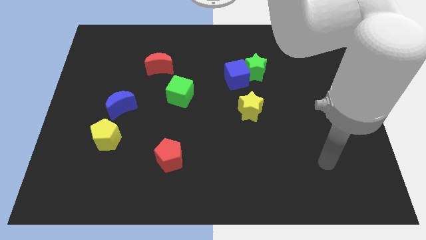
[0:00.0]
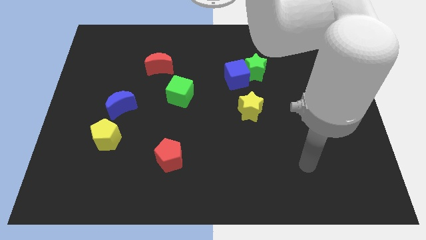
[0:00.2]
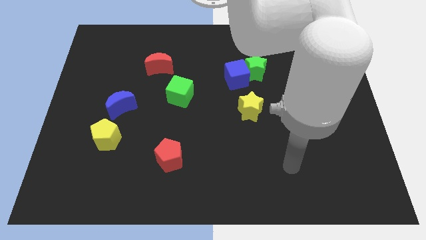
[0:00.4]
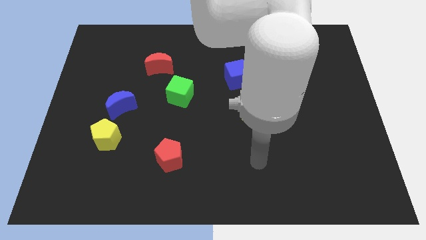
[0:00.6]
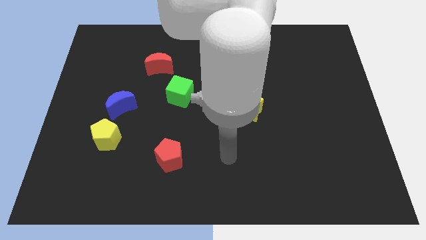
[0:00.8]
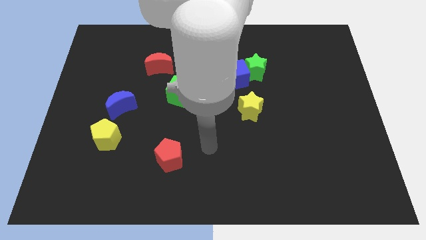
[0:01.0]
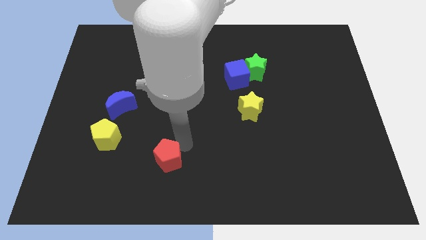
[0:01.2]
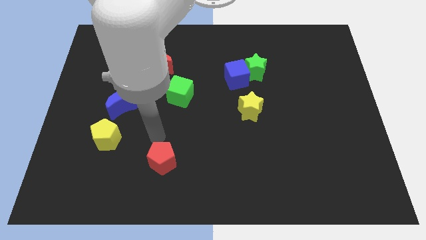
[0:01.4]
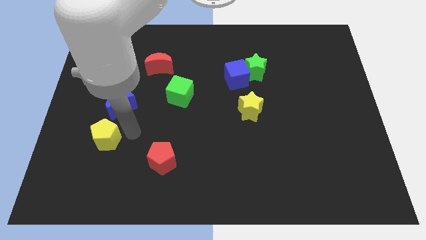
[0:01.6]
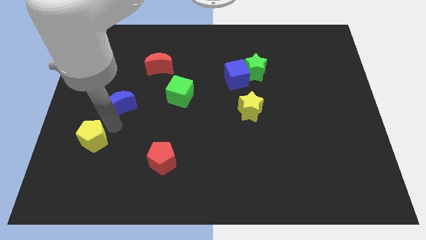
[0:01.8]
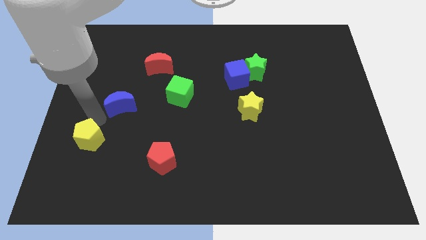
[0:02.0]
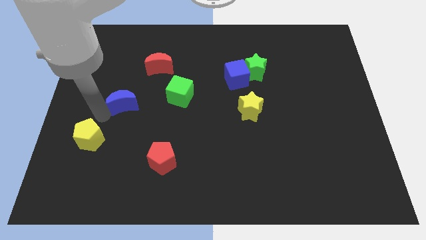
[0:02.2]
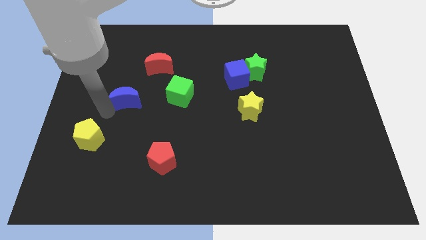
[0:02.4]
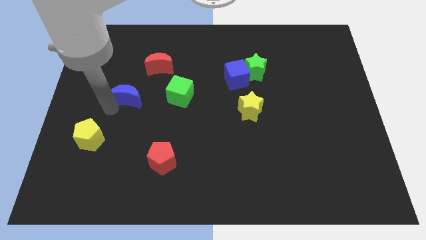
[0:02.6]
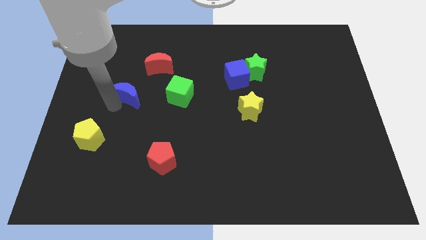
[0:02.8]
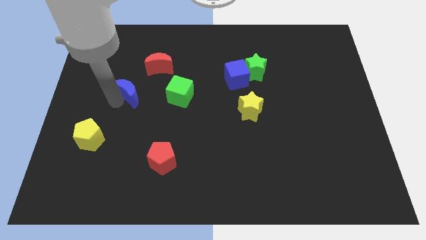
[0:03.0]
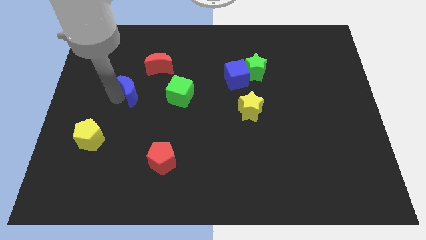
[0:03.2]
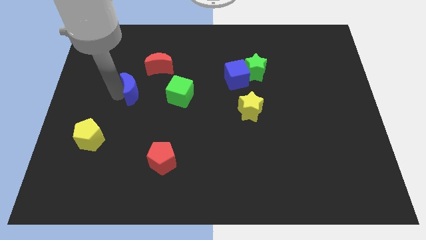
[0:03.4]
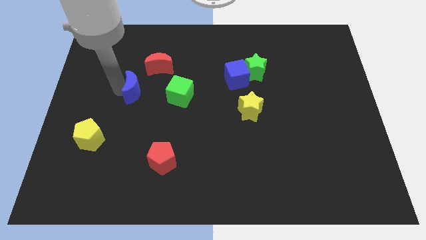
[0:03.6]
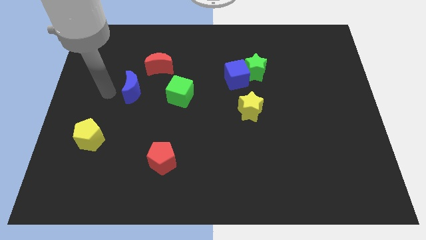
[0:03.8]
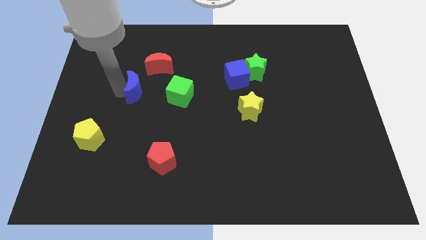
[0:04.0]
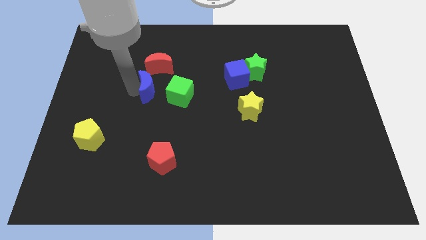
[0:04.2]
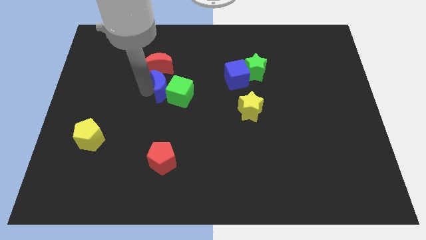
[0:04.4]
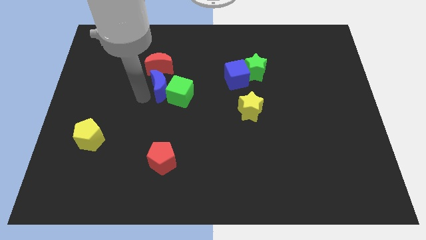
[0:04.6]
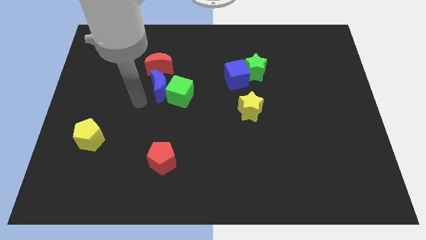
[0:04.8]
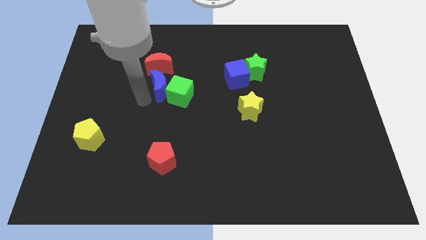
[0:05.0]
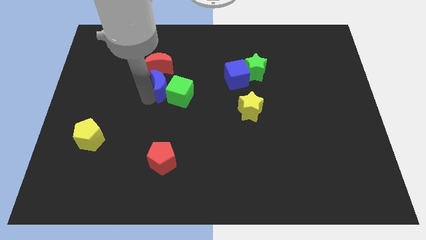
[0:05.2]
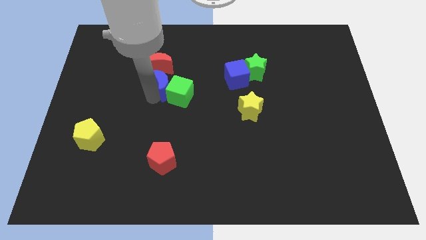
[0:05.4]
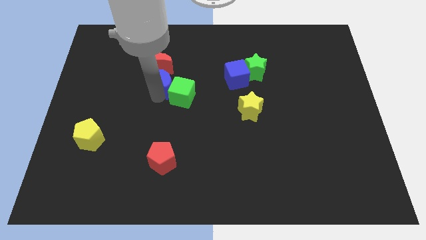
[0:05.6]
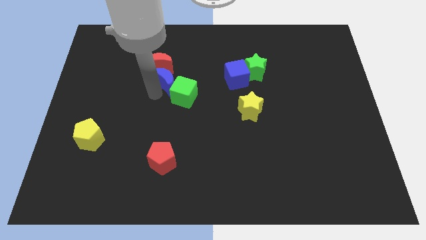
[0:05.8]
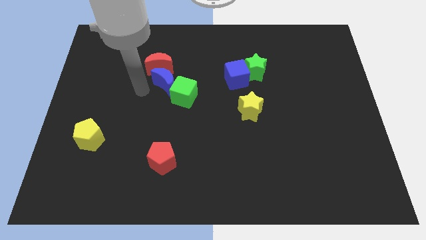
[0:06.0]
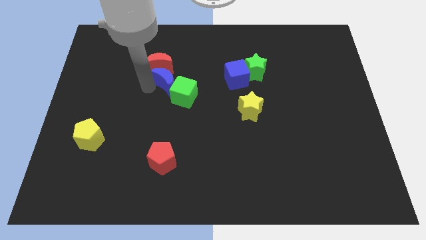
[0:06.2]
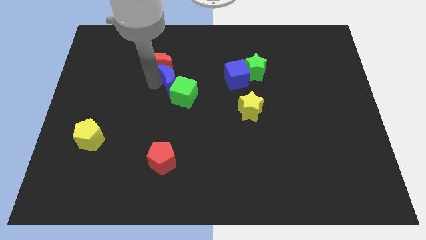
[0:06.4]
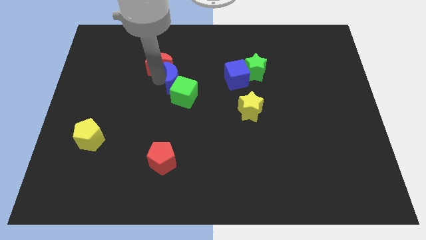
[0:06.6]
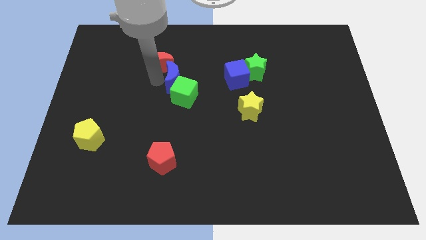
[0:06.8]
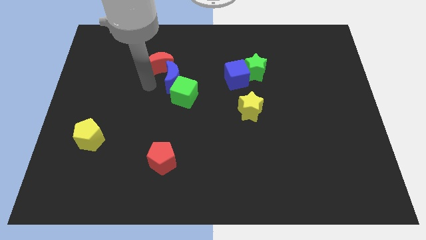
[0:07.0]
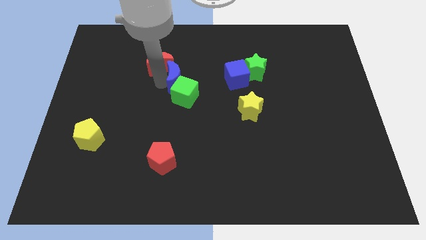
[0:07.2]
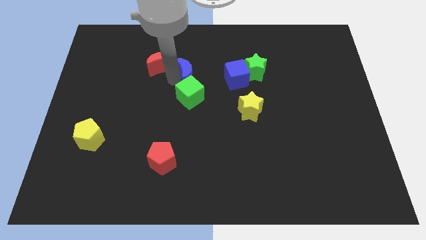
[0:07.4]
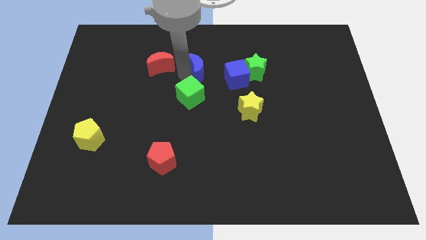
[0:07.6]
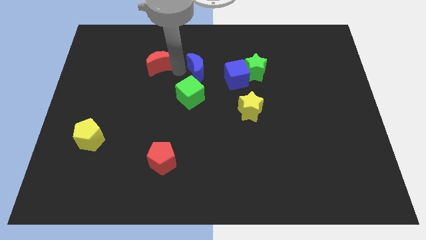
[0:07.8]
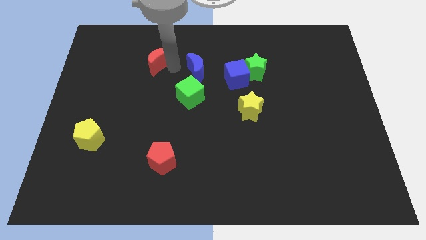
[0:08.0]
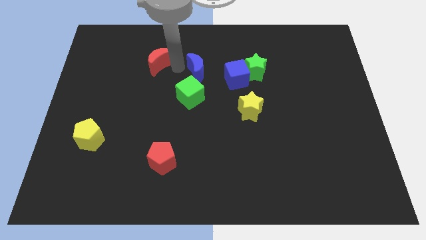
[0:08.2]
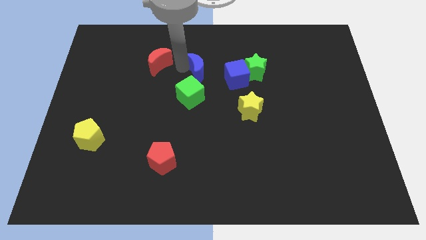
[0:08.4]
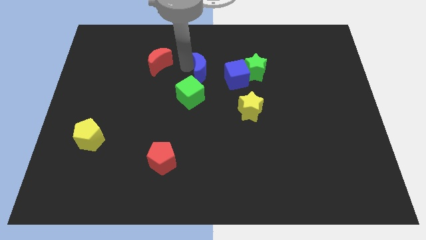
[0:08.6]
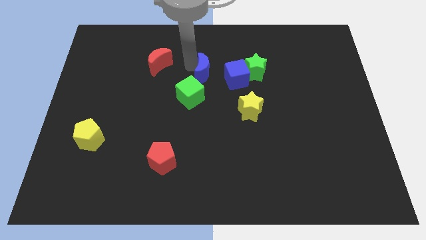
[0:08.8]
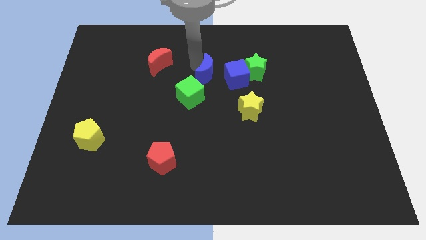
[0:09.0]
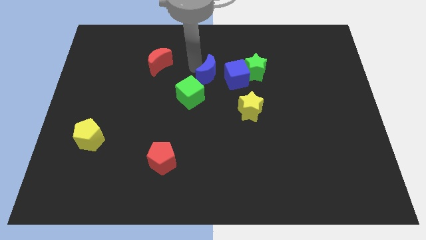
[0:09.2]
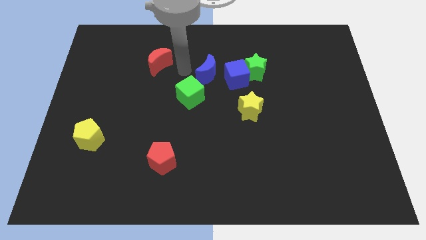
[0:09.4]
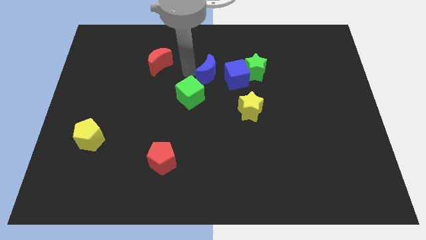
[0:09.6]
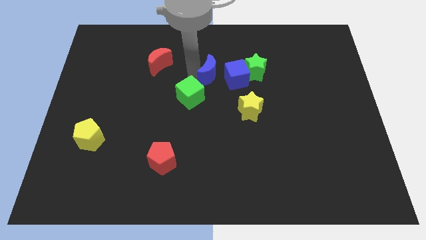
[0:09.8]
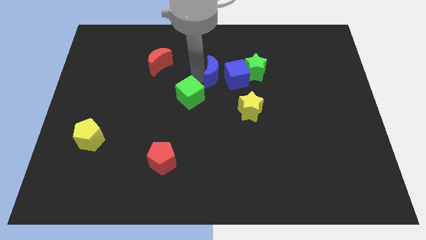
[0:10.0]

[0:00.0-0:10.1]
push the blue moon next to the blue cube

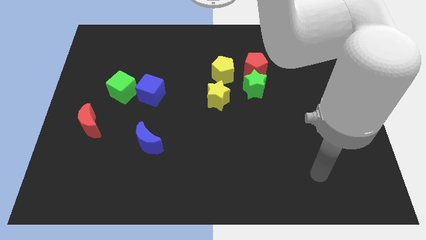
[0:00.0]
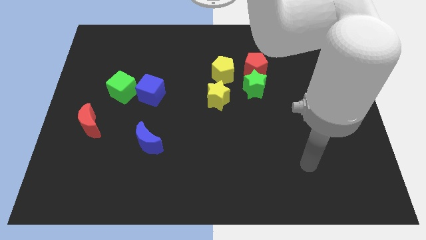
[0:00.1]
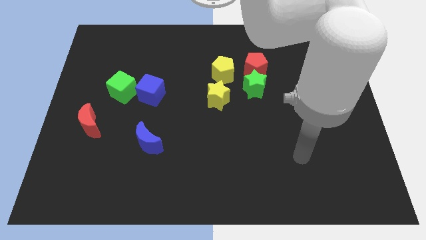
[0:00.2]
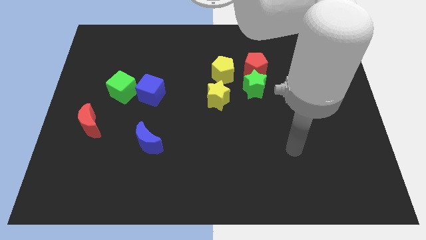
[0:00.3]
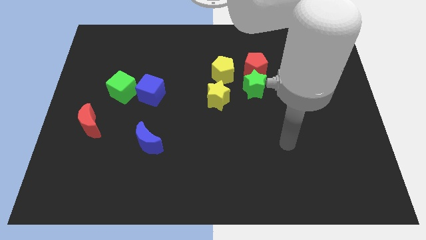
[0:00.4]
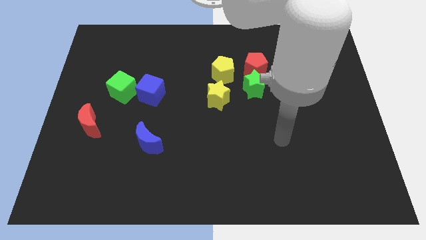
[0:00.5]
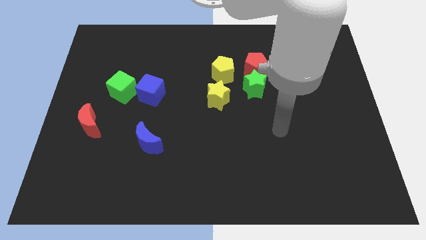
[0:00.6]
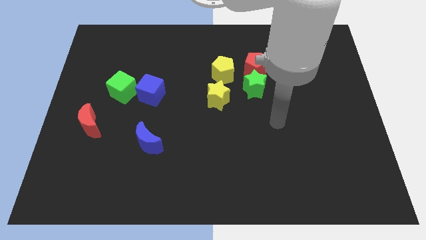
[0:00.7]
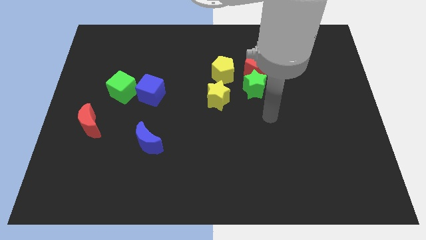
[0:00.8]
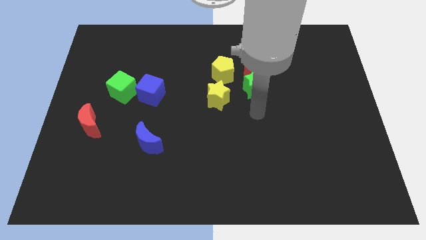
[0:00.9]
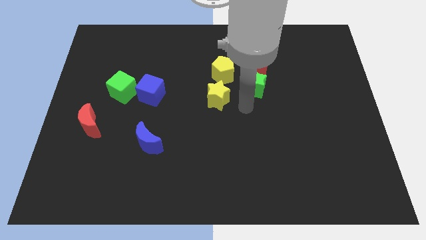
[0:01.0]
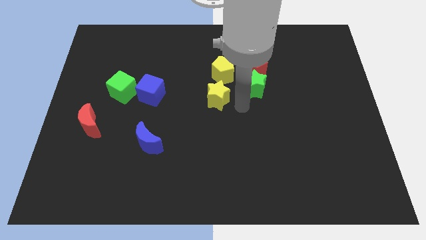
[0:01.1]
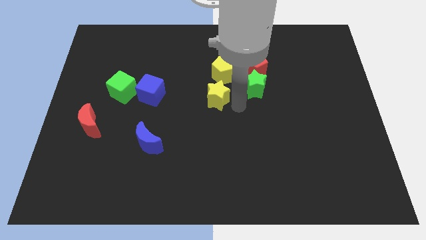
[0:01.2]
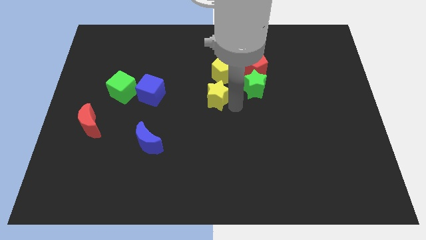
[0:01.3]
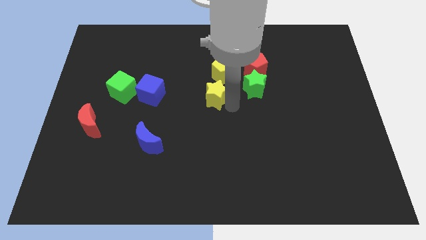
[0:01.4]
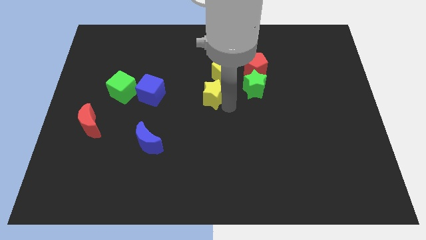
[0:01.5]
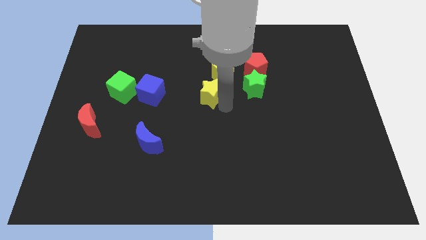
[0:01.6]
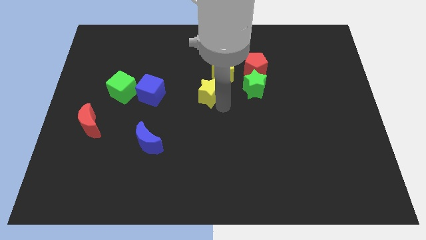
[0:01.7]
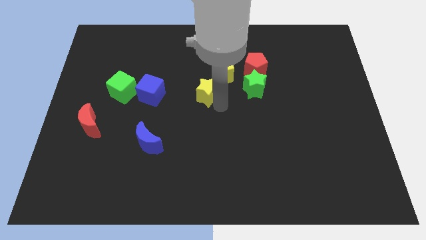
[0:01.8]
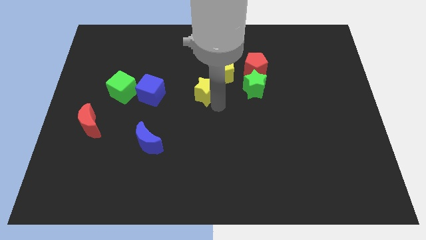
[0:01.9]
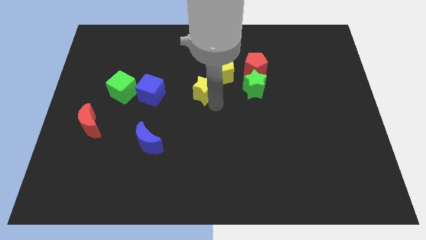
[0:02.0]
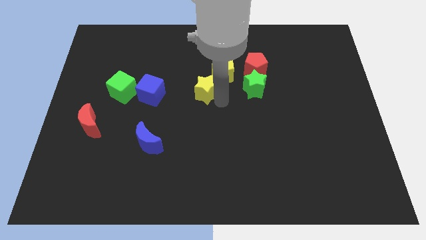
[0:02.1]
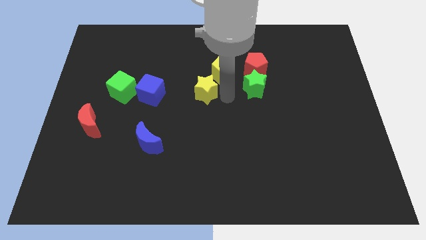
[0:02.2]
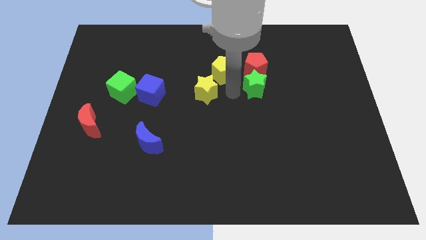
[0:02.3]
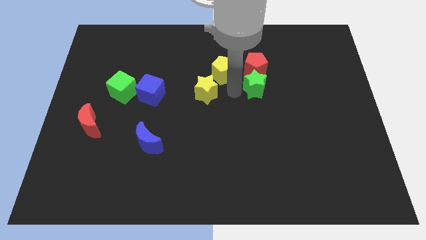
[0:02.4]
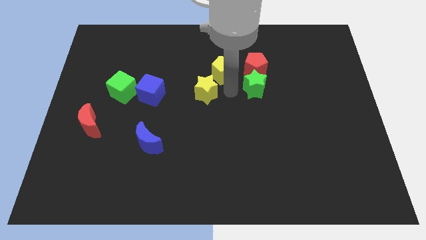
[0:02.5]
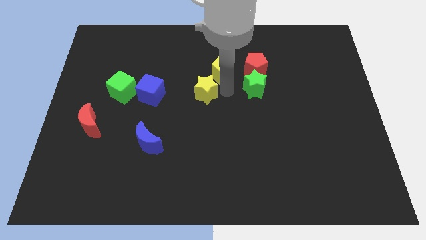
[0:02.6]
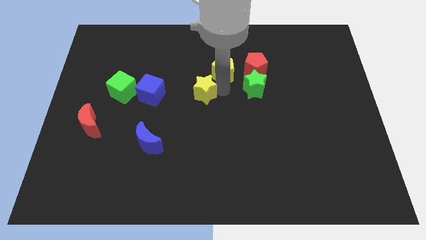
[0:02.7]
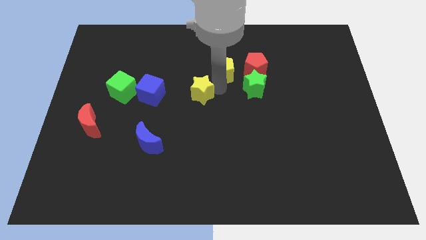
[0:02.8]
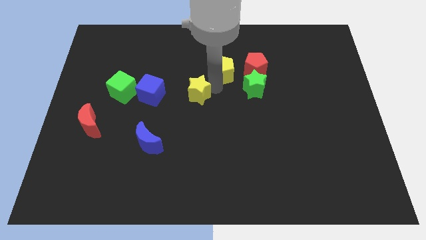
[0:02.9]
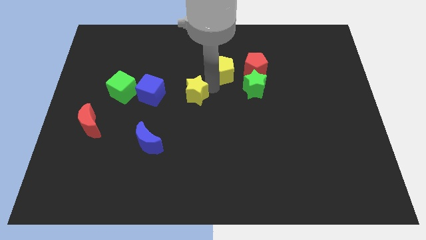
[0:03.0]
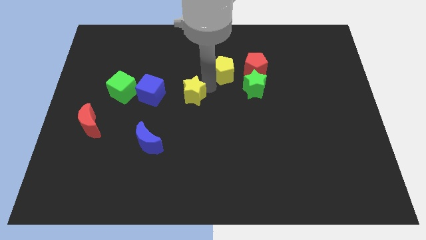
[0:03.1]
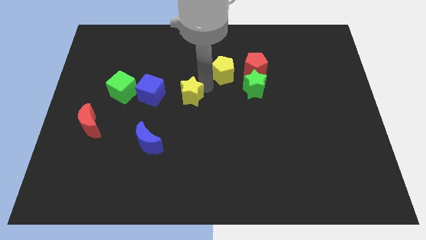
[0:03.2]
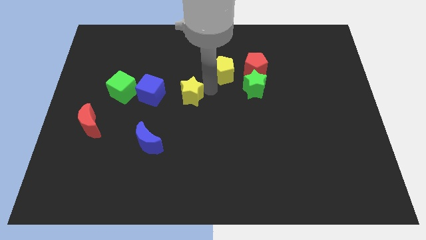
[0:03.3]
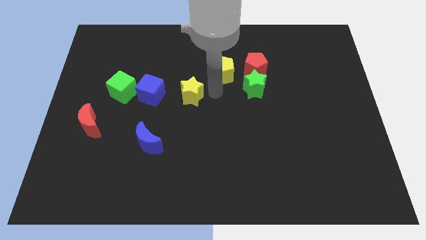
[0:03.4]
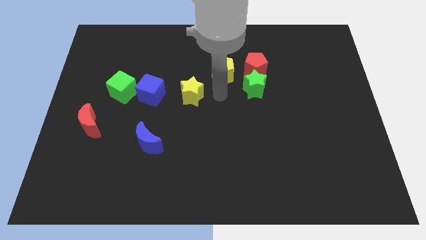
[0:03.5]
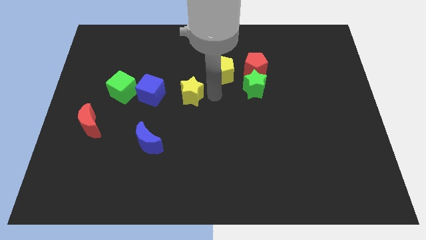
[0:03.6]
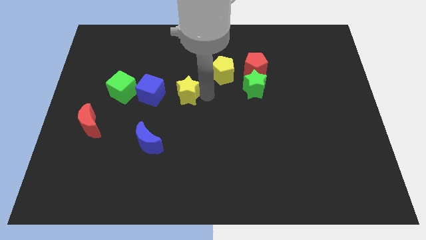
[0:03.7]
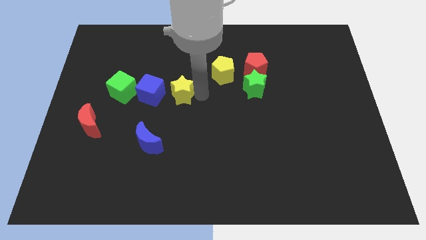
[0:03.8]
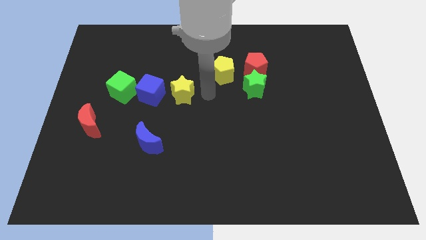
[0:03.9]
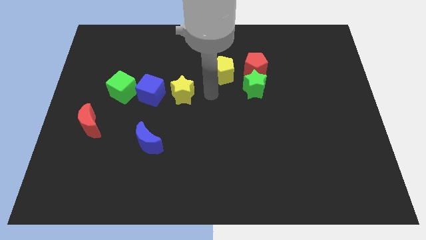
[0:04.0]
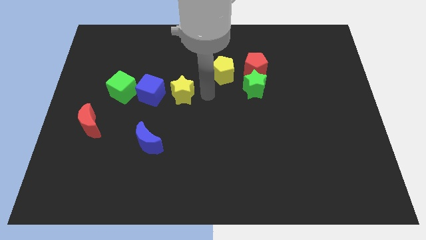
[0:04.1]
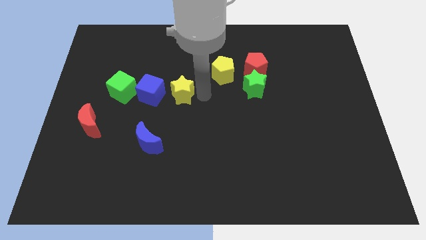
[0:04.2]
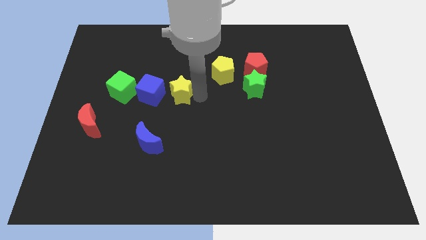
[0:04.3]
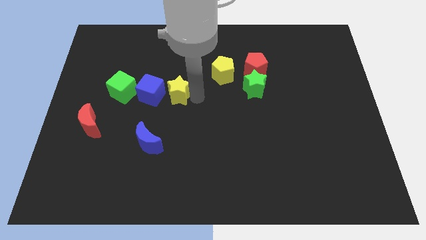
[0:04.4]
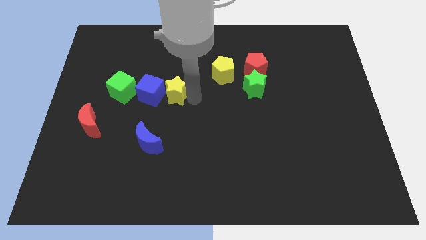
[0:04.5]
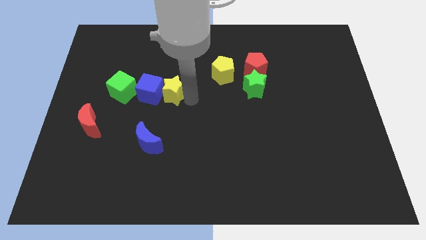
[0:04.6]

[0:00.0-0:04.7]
put the yellow star towards the blue cube
